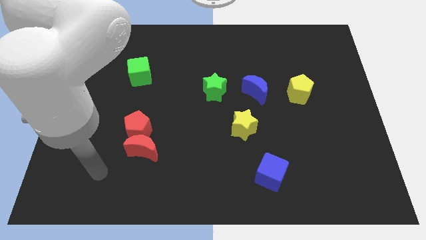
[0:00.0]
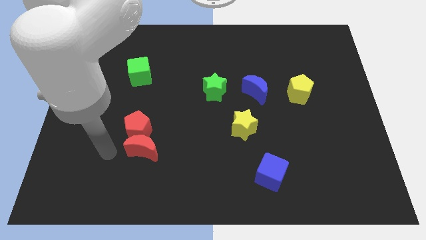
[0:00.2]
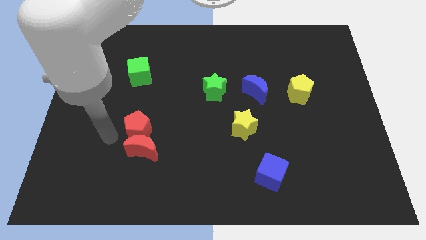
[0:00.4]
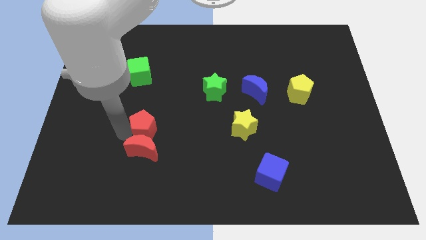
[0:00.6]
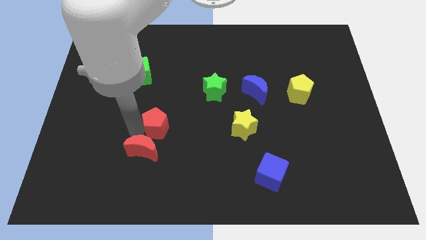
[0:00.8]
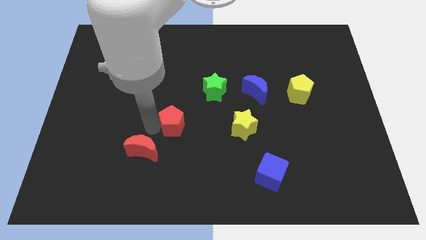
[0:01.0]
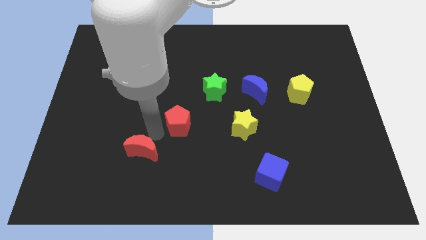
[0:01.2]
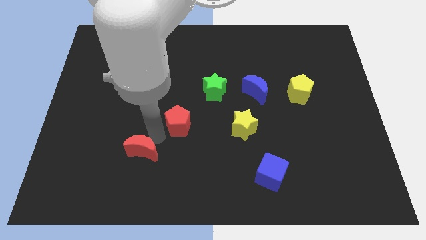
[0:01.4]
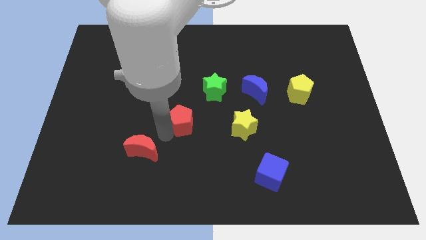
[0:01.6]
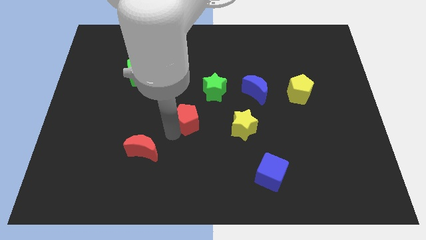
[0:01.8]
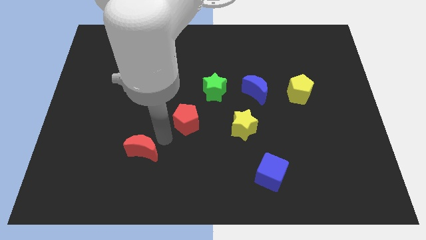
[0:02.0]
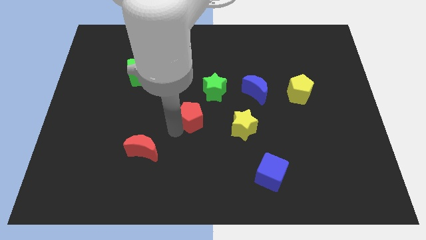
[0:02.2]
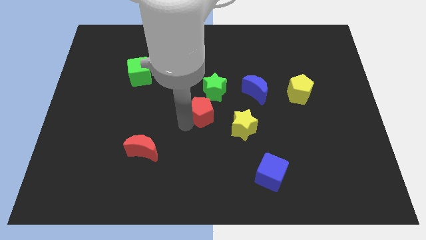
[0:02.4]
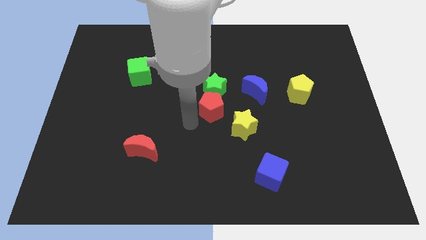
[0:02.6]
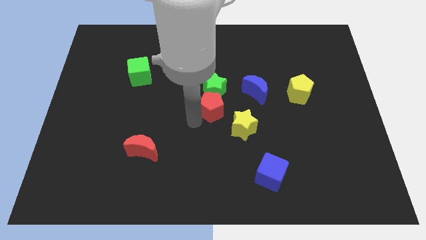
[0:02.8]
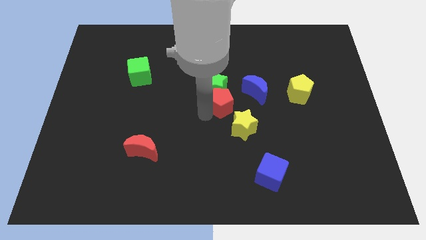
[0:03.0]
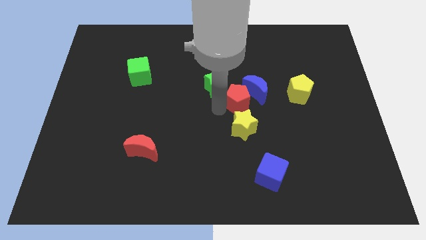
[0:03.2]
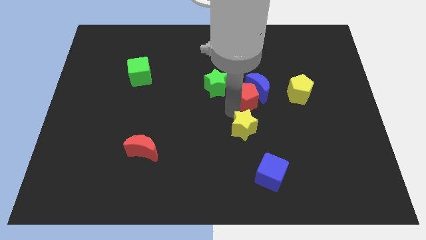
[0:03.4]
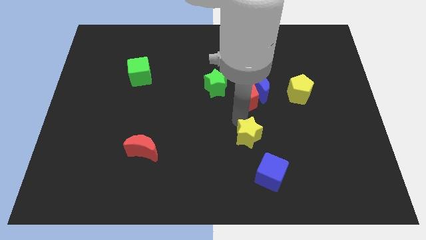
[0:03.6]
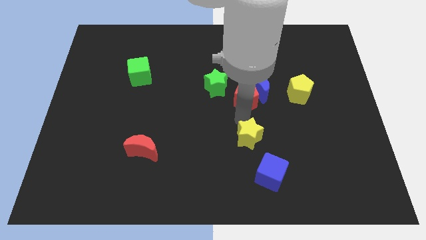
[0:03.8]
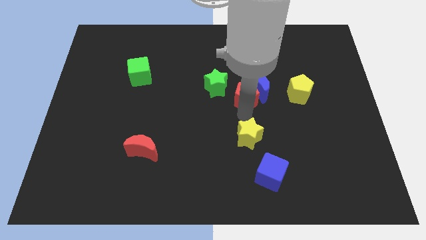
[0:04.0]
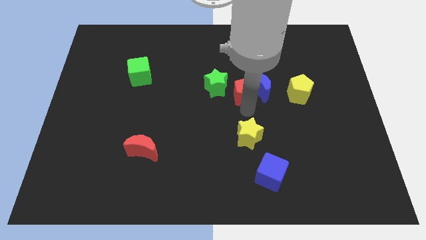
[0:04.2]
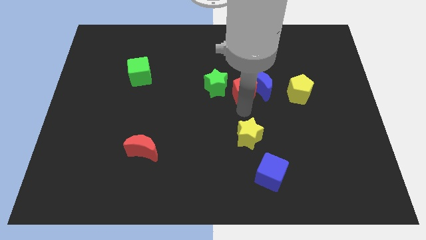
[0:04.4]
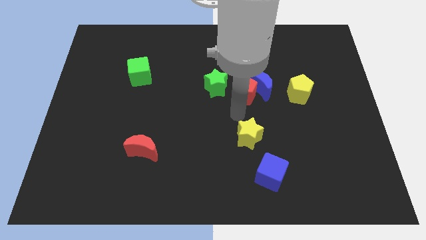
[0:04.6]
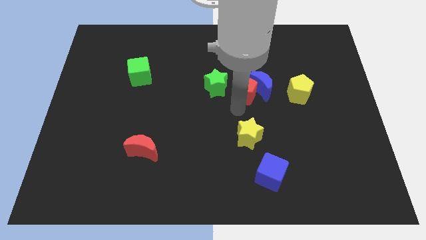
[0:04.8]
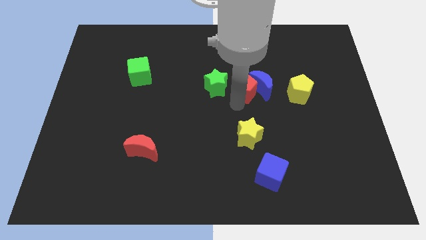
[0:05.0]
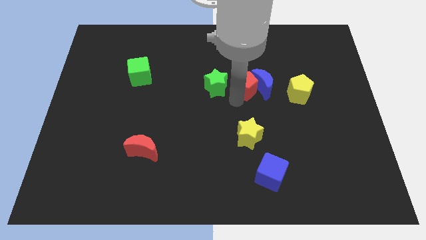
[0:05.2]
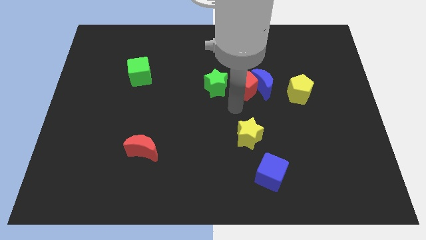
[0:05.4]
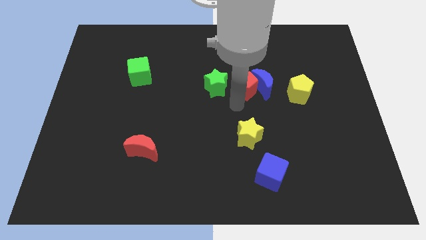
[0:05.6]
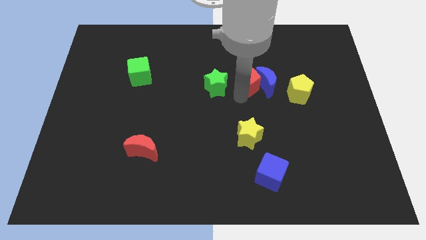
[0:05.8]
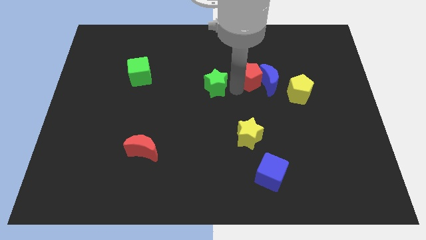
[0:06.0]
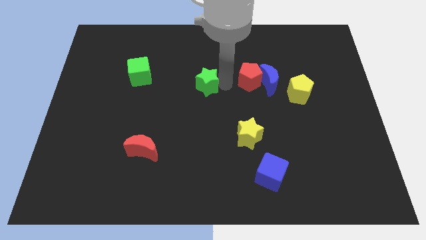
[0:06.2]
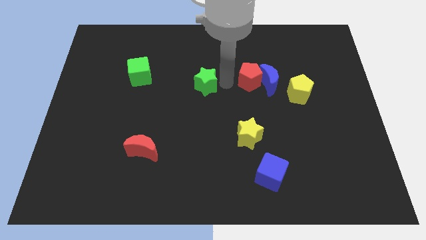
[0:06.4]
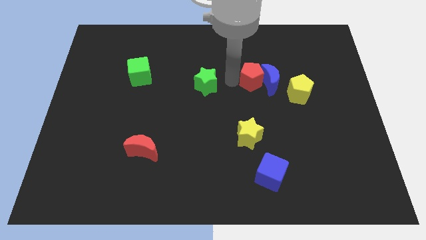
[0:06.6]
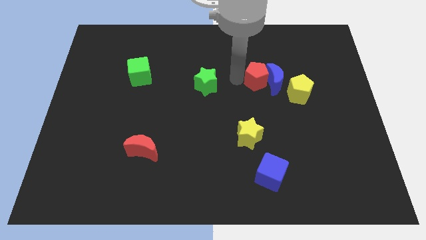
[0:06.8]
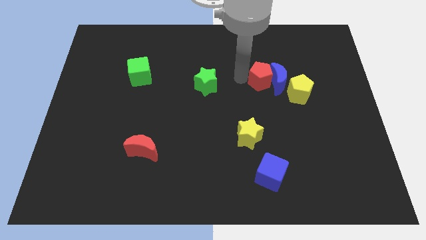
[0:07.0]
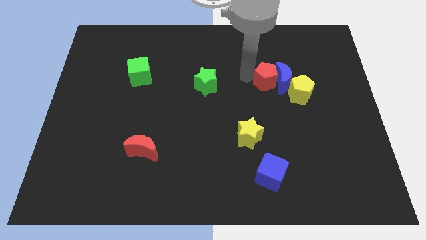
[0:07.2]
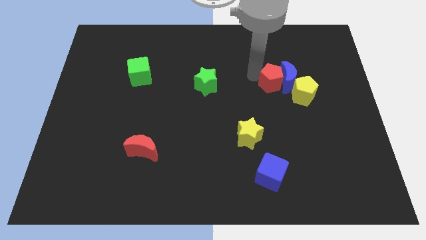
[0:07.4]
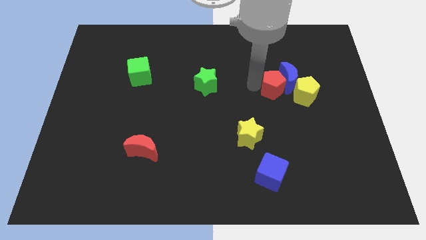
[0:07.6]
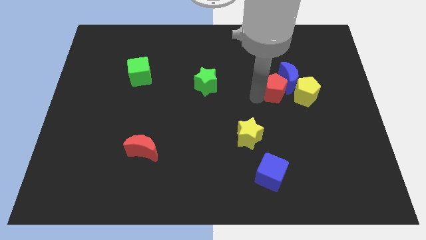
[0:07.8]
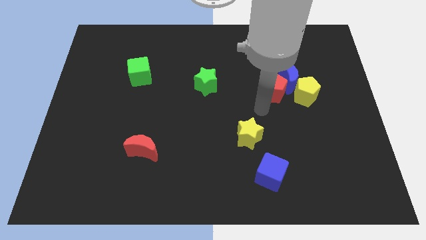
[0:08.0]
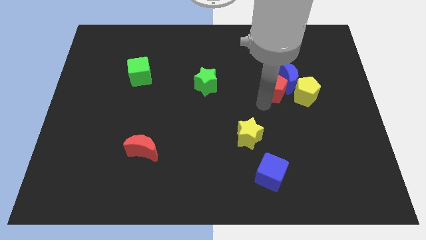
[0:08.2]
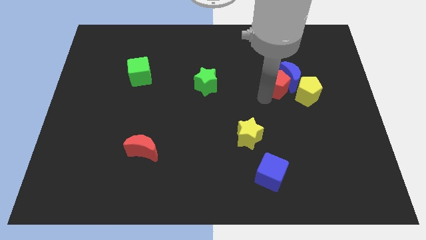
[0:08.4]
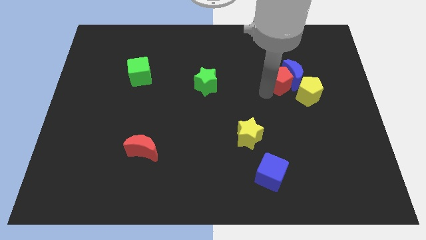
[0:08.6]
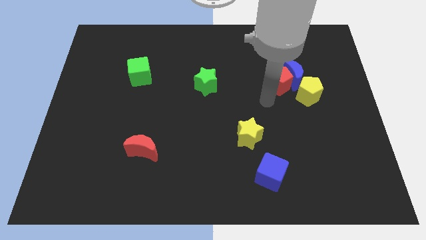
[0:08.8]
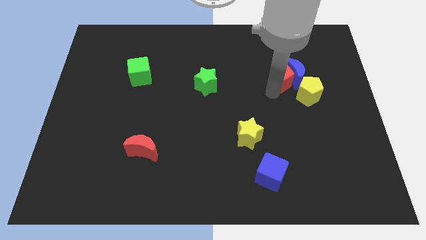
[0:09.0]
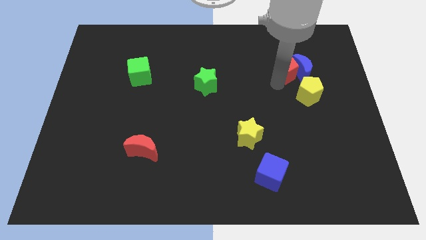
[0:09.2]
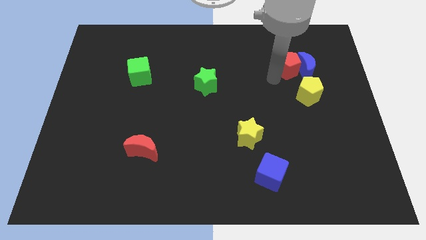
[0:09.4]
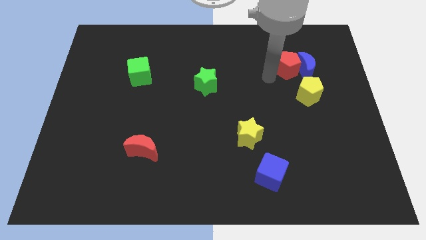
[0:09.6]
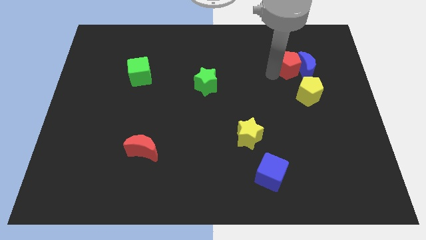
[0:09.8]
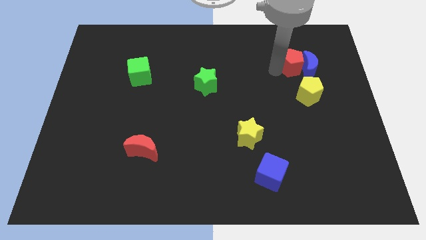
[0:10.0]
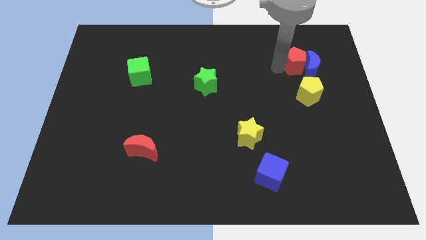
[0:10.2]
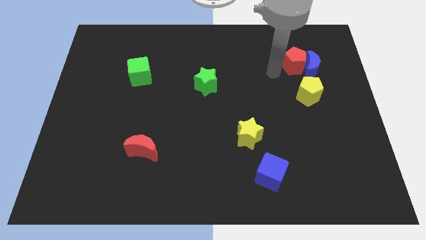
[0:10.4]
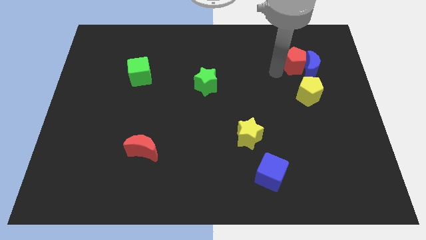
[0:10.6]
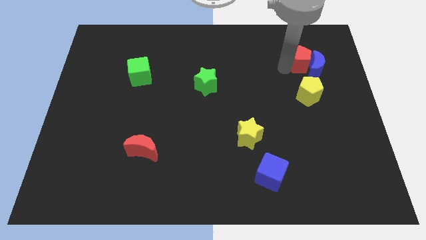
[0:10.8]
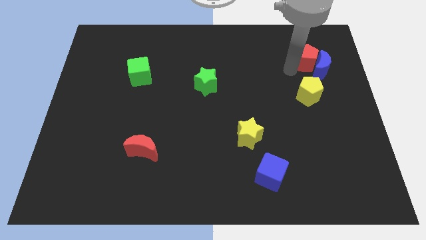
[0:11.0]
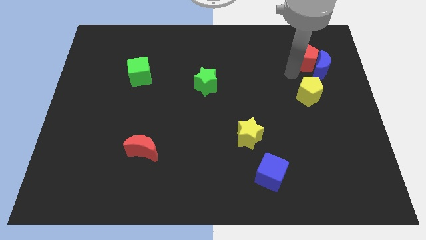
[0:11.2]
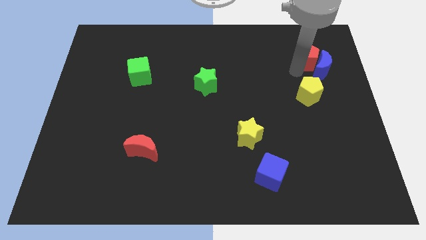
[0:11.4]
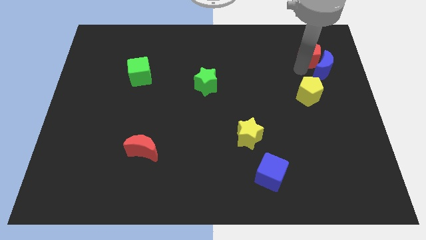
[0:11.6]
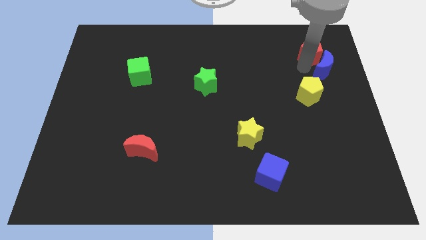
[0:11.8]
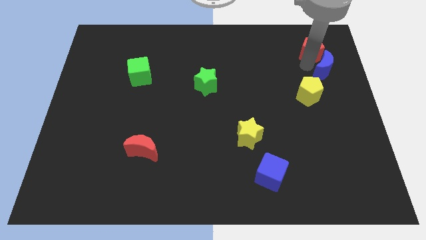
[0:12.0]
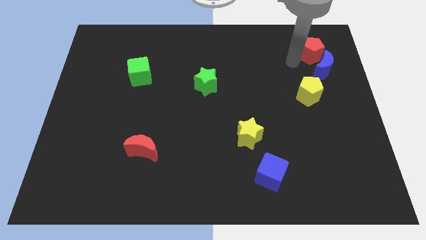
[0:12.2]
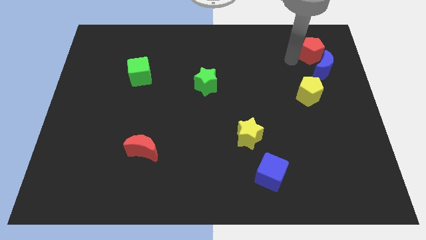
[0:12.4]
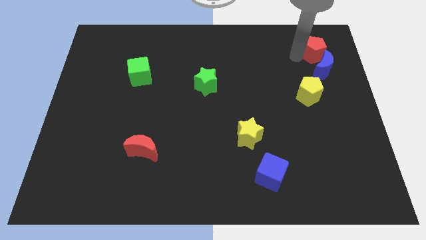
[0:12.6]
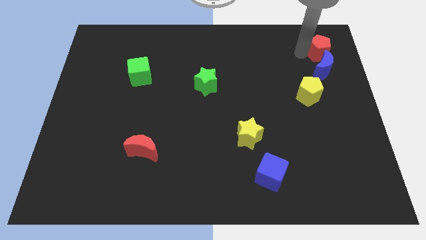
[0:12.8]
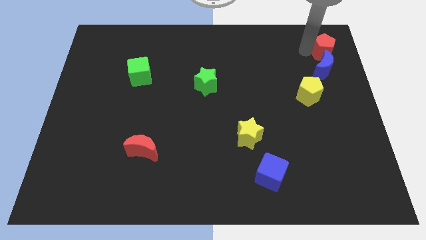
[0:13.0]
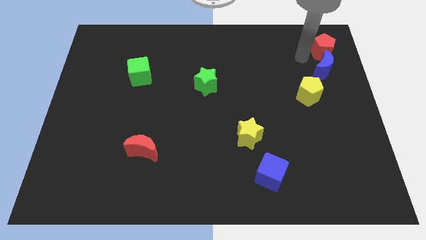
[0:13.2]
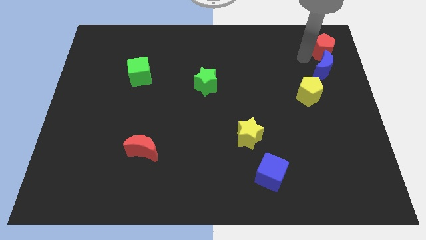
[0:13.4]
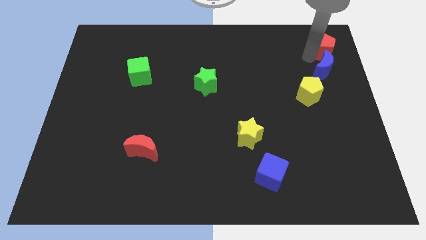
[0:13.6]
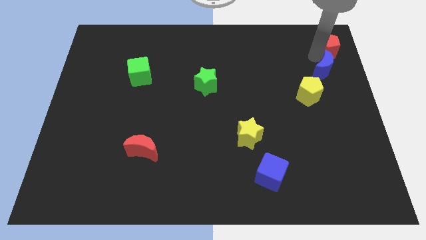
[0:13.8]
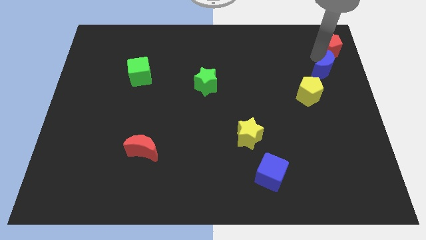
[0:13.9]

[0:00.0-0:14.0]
push the red pentagon to the top right corner
